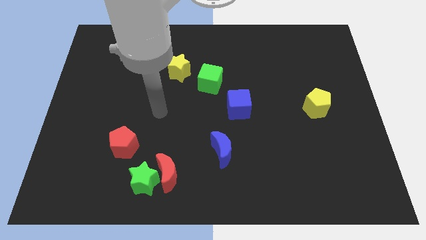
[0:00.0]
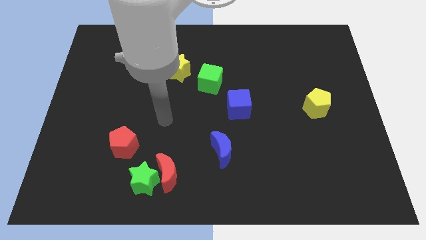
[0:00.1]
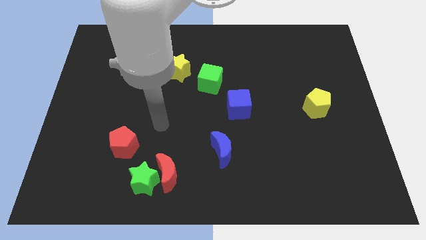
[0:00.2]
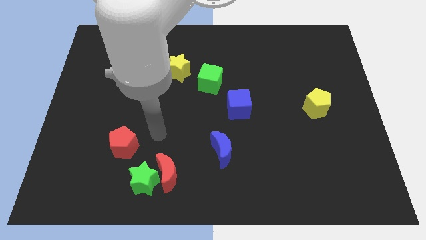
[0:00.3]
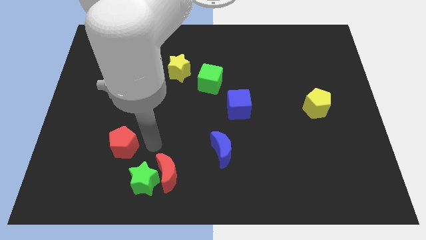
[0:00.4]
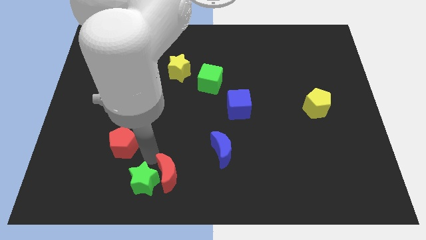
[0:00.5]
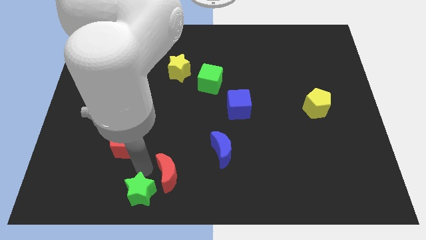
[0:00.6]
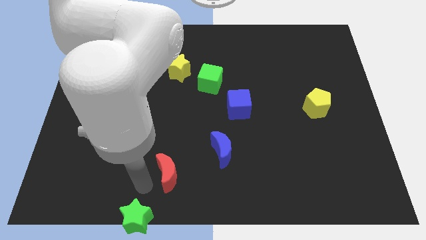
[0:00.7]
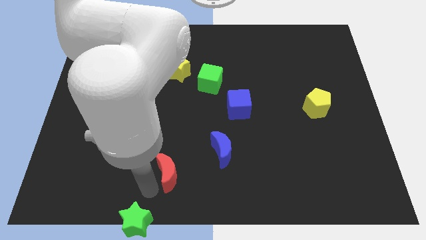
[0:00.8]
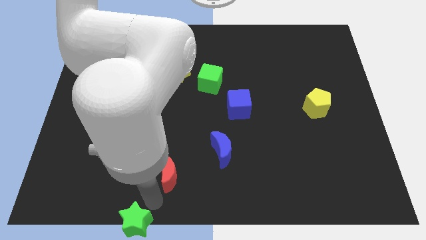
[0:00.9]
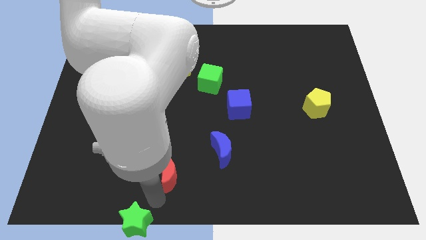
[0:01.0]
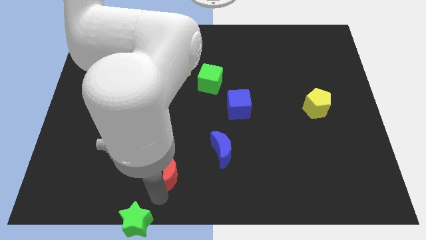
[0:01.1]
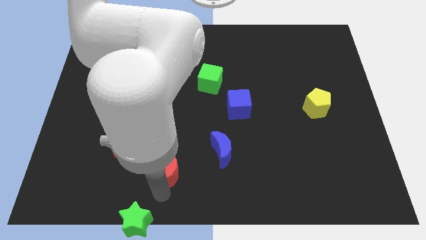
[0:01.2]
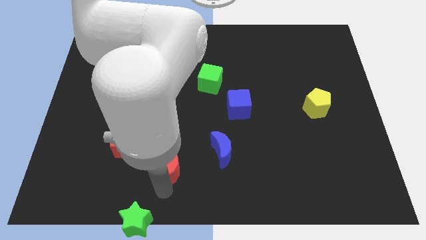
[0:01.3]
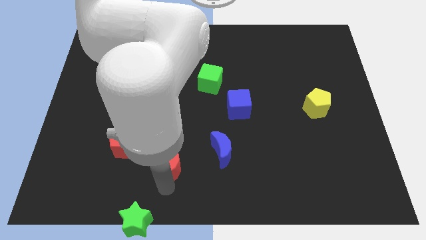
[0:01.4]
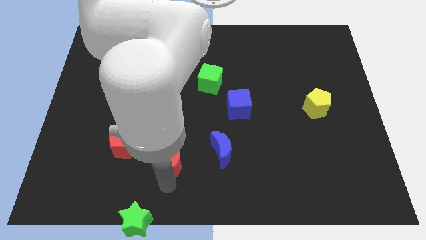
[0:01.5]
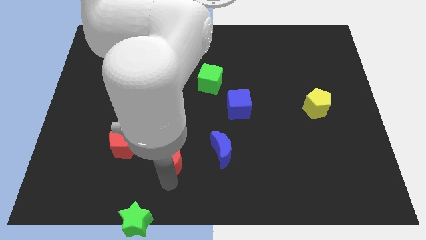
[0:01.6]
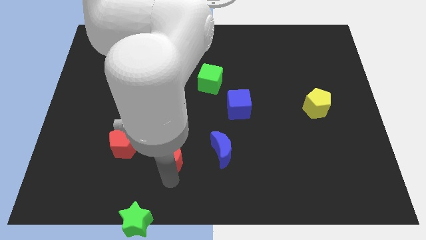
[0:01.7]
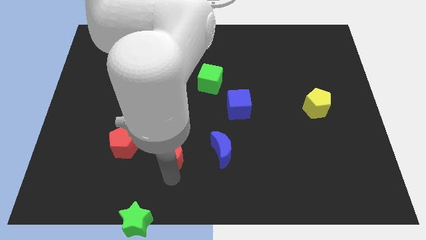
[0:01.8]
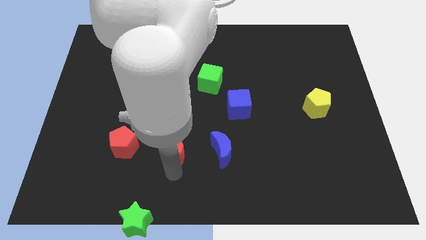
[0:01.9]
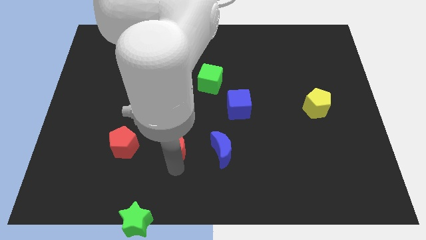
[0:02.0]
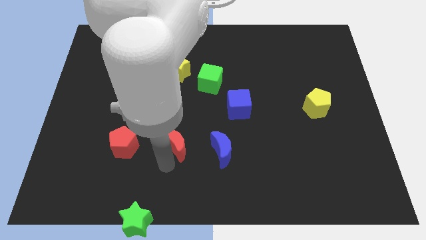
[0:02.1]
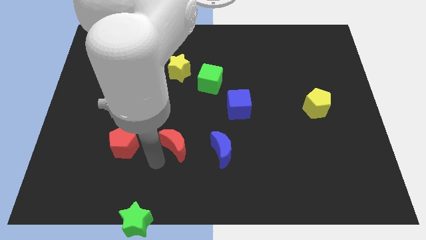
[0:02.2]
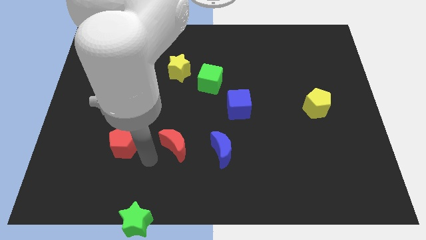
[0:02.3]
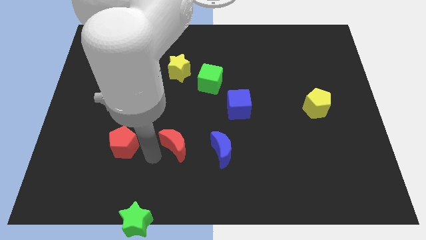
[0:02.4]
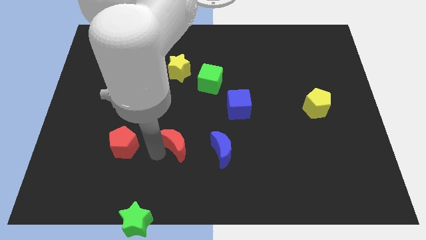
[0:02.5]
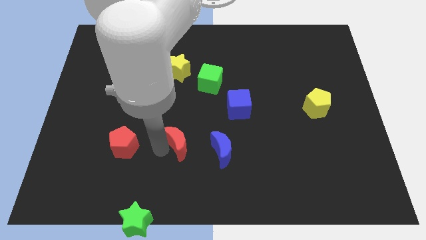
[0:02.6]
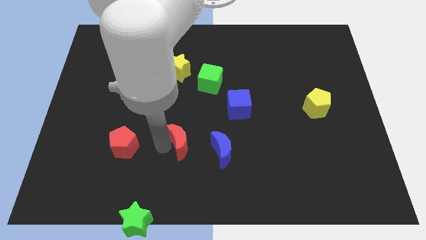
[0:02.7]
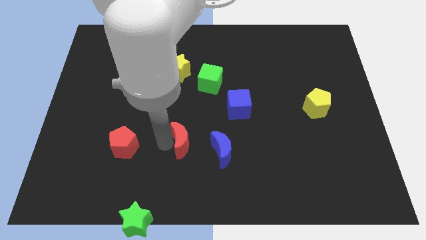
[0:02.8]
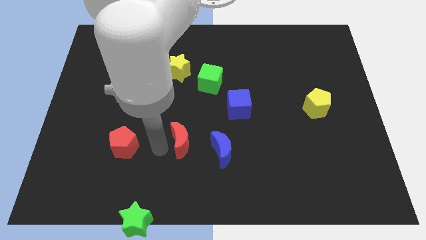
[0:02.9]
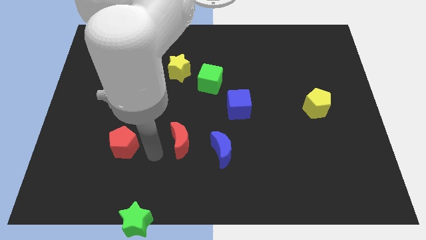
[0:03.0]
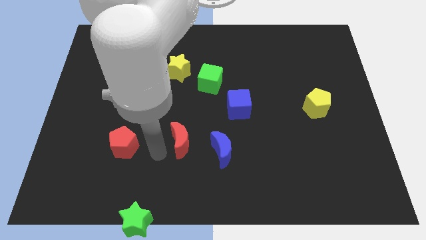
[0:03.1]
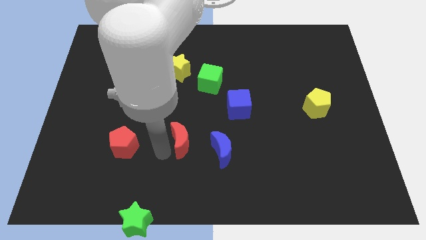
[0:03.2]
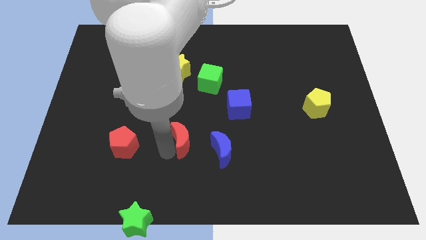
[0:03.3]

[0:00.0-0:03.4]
slide the red moon a bit up and then to the right

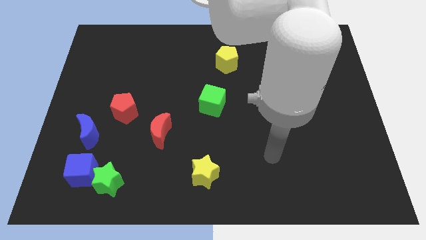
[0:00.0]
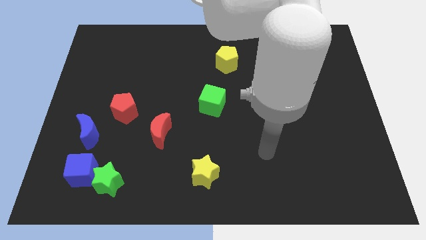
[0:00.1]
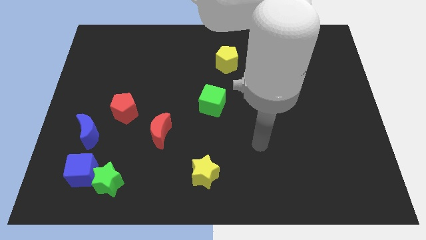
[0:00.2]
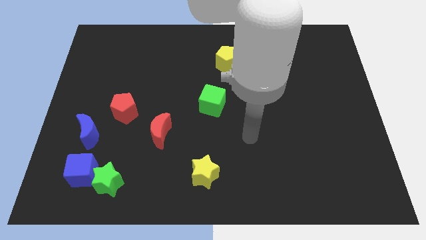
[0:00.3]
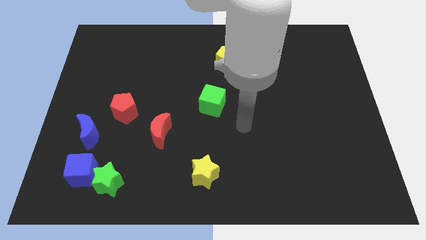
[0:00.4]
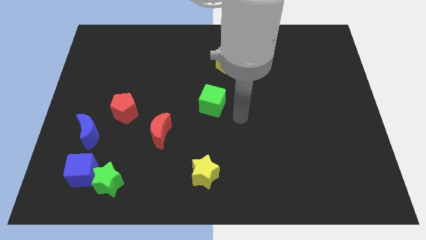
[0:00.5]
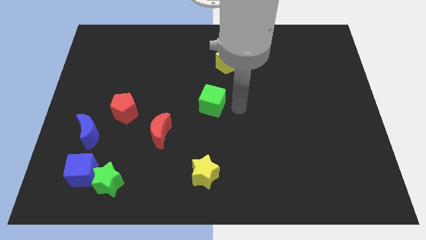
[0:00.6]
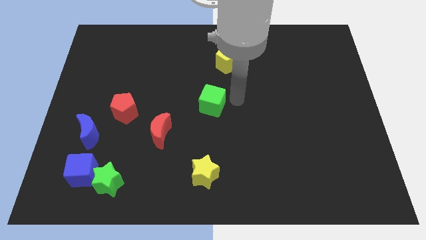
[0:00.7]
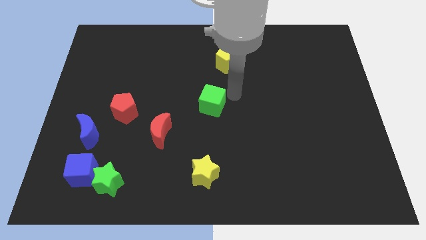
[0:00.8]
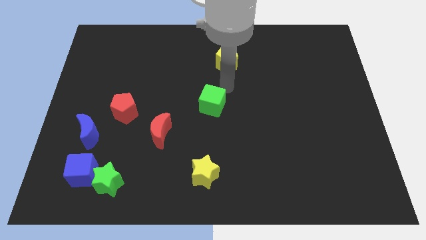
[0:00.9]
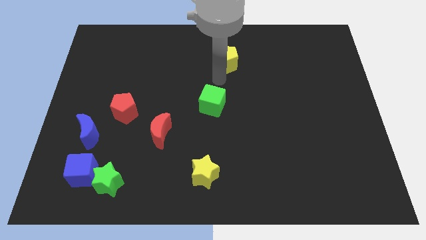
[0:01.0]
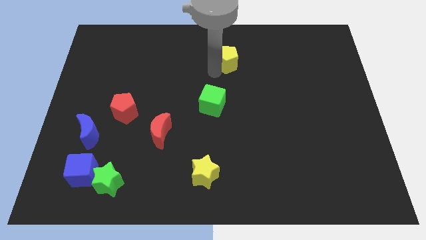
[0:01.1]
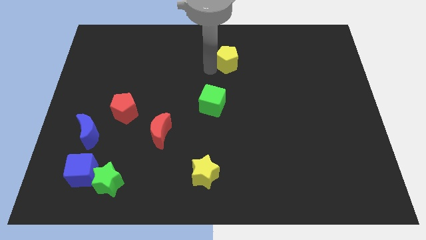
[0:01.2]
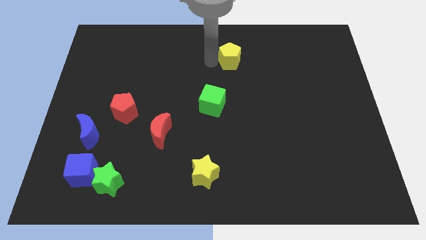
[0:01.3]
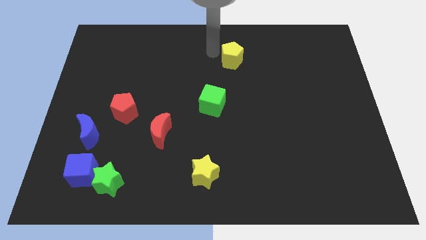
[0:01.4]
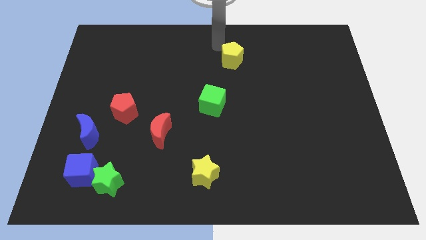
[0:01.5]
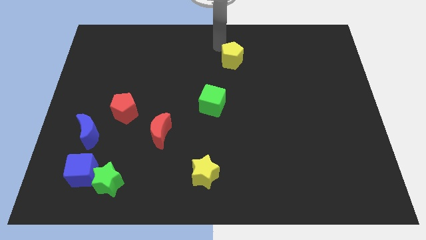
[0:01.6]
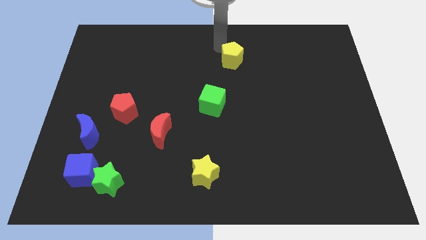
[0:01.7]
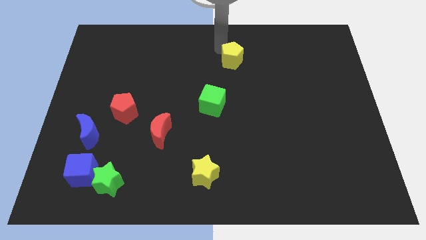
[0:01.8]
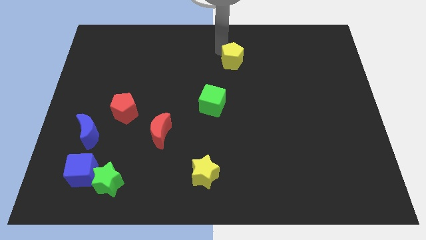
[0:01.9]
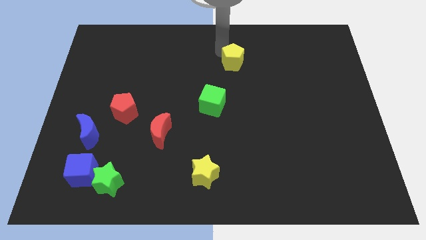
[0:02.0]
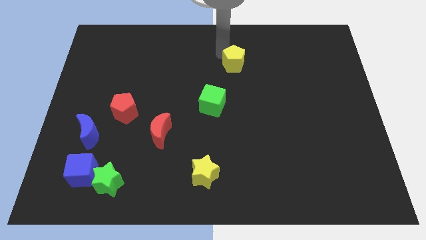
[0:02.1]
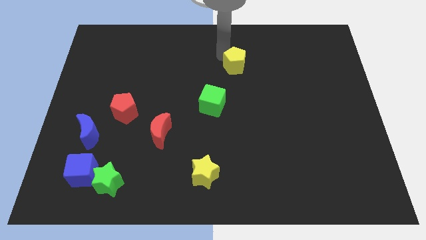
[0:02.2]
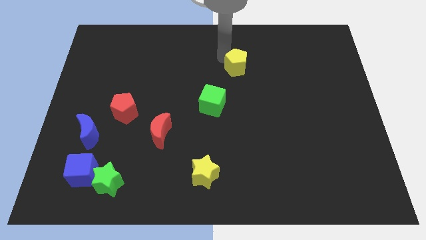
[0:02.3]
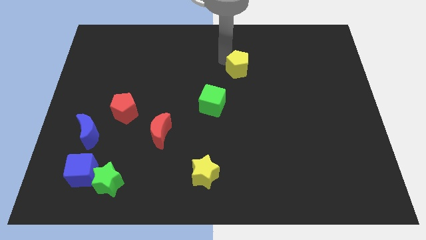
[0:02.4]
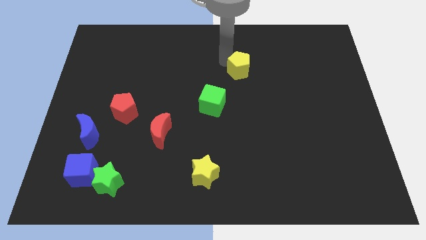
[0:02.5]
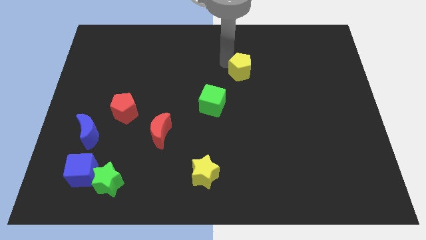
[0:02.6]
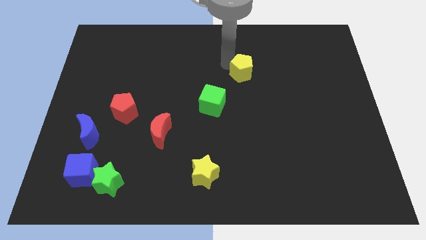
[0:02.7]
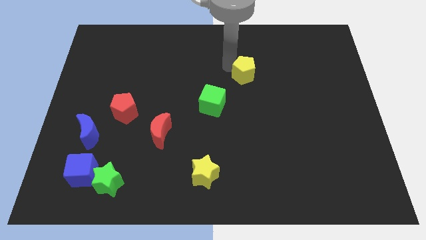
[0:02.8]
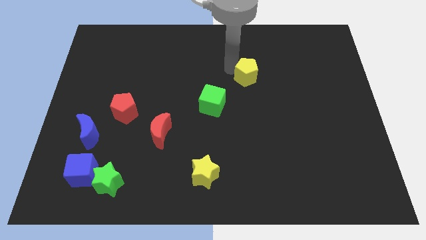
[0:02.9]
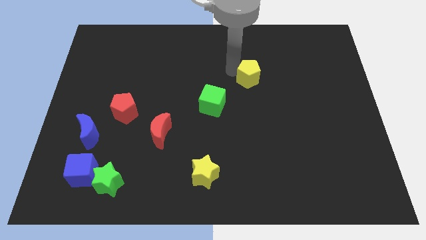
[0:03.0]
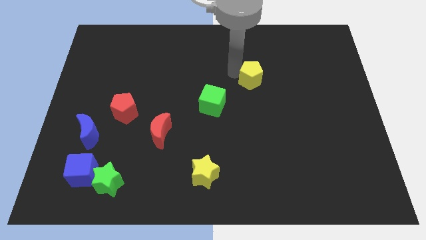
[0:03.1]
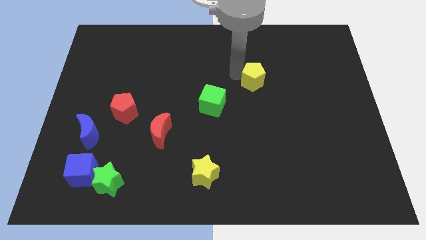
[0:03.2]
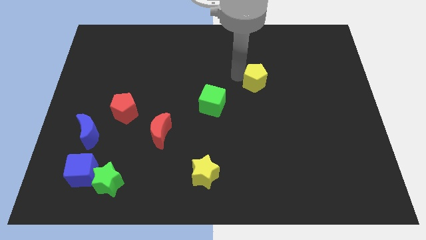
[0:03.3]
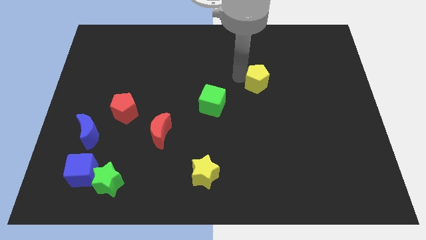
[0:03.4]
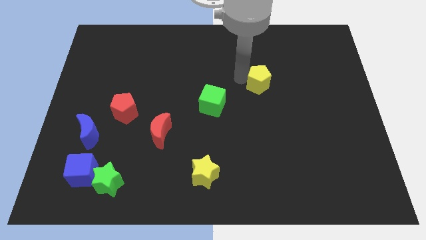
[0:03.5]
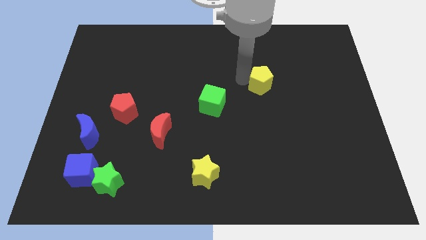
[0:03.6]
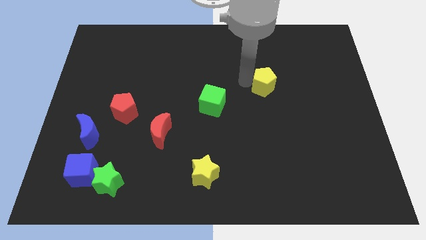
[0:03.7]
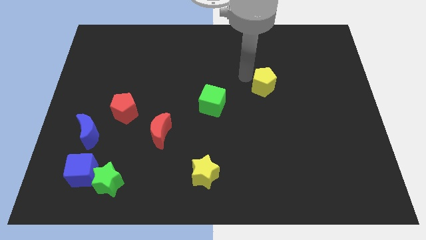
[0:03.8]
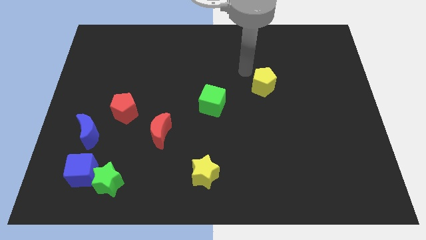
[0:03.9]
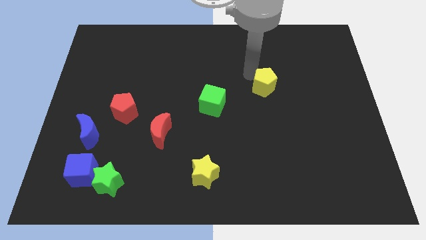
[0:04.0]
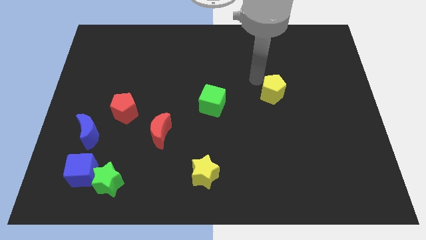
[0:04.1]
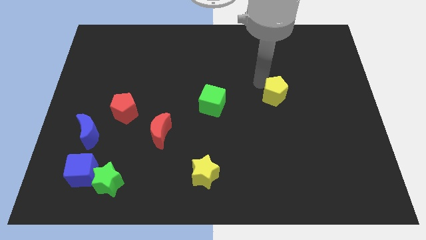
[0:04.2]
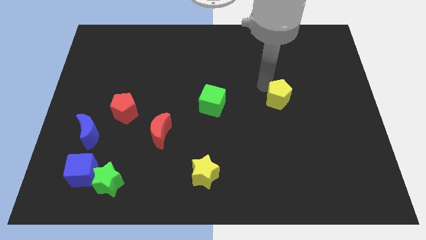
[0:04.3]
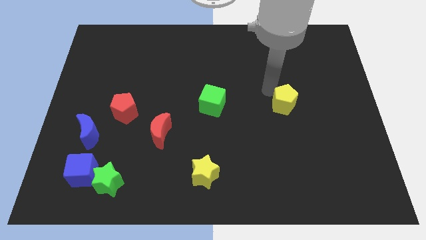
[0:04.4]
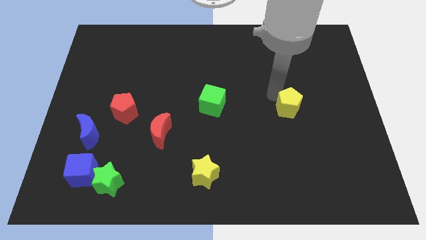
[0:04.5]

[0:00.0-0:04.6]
move the yellow pentagon down and to the right
